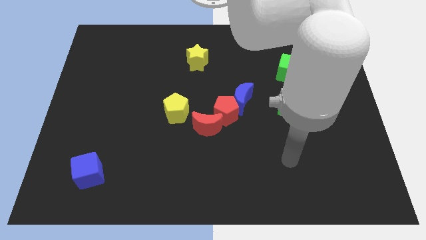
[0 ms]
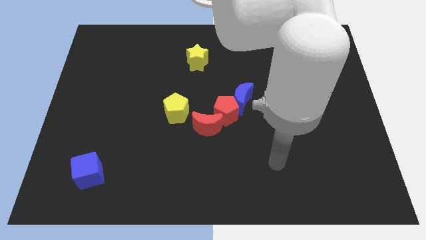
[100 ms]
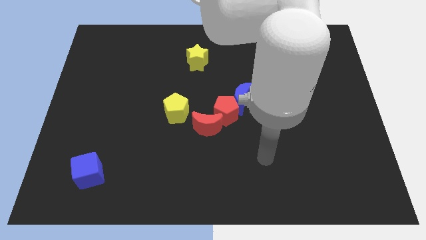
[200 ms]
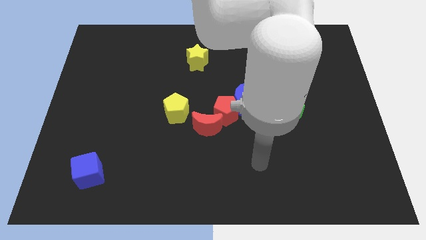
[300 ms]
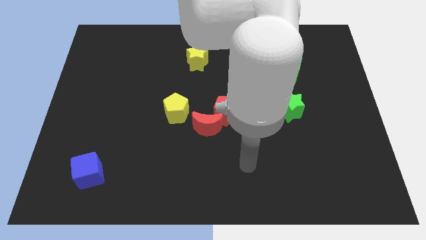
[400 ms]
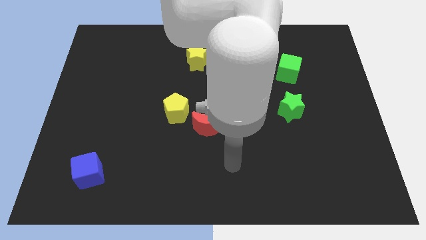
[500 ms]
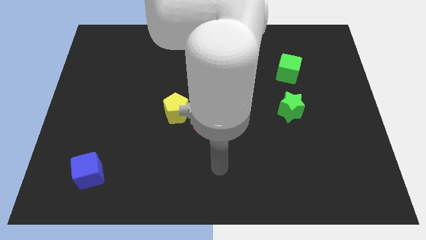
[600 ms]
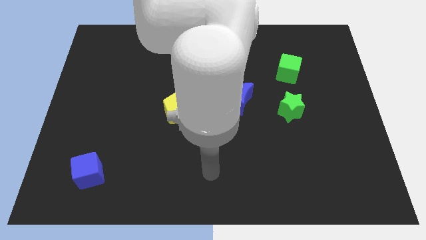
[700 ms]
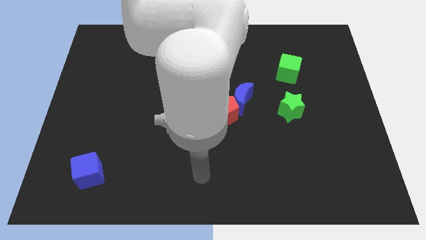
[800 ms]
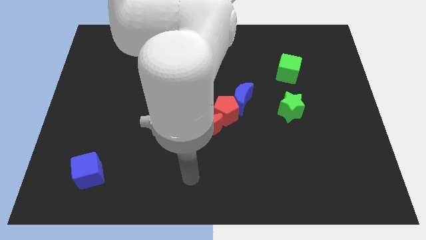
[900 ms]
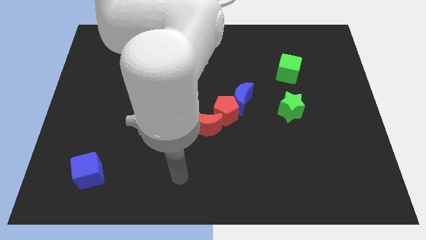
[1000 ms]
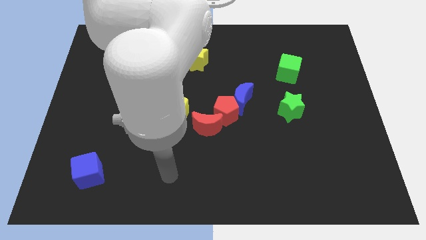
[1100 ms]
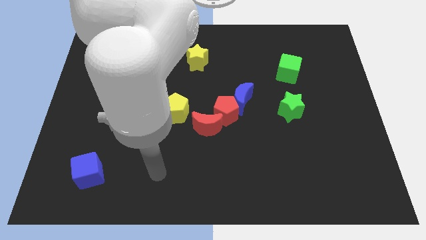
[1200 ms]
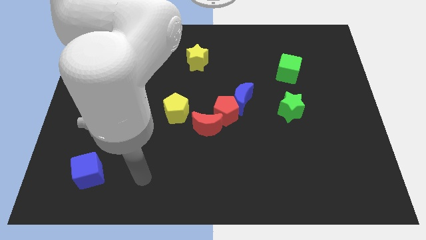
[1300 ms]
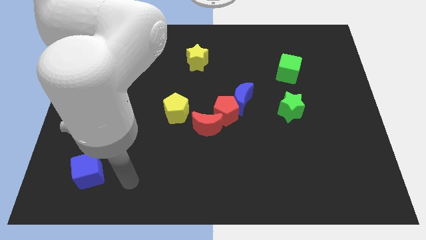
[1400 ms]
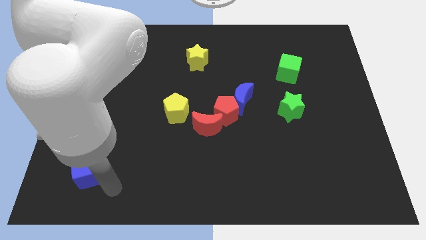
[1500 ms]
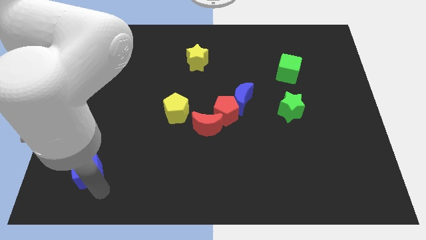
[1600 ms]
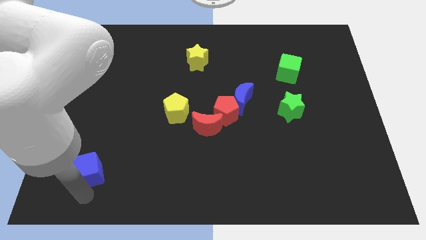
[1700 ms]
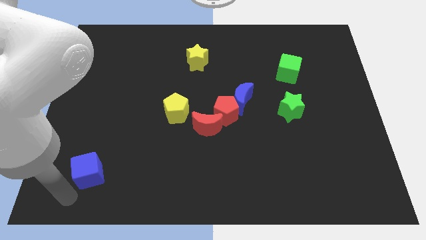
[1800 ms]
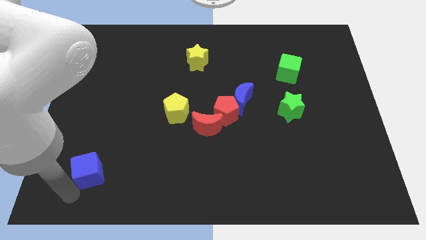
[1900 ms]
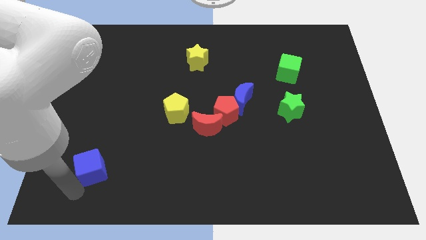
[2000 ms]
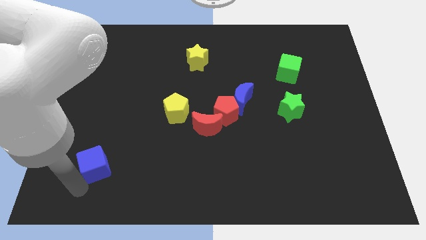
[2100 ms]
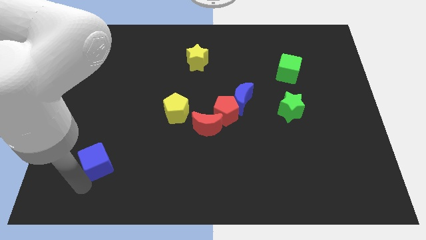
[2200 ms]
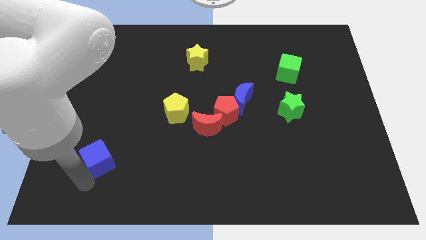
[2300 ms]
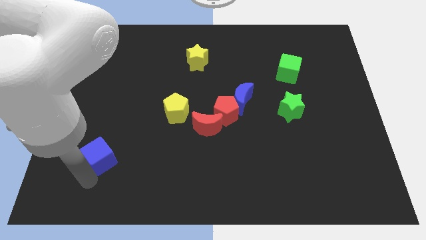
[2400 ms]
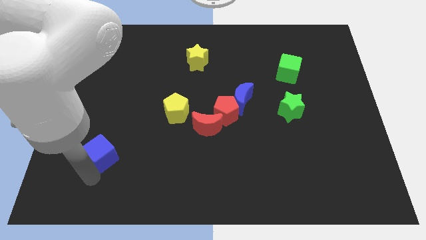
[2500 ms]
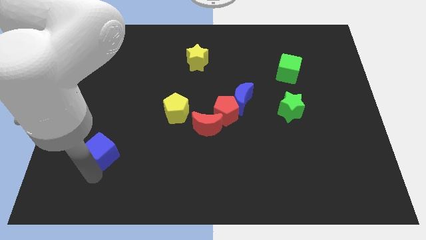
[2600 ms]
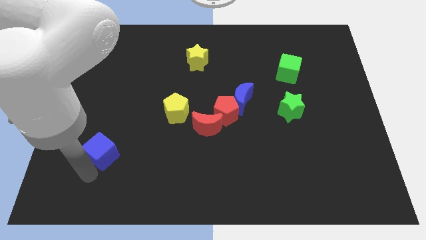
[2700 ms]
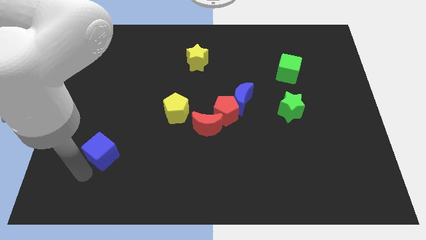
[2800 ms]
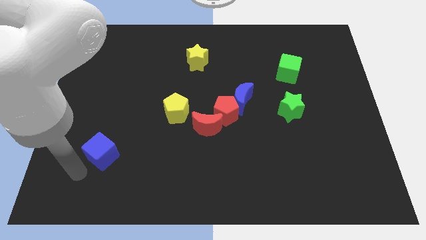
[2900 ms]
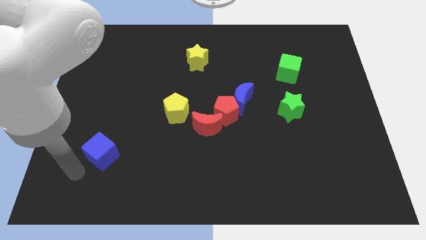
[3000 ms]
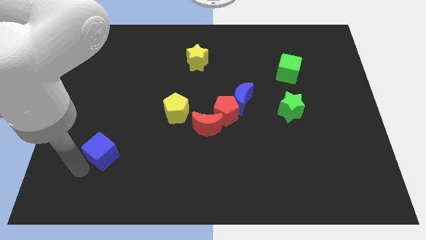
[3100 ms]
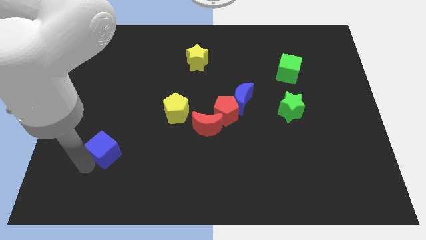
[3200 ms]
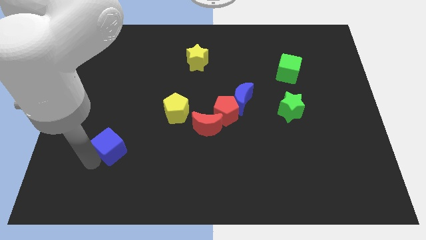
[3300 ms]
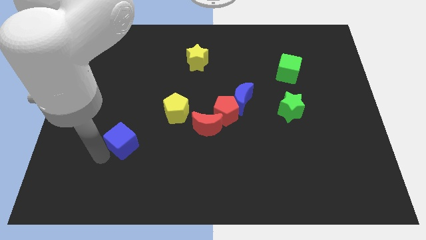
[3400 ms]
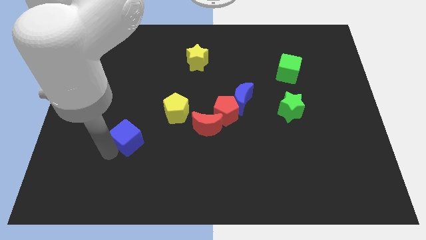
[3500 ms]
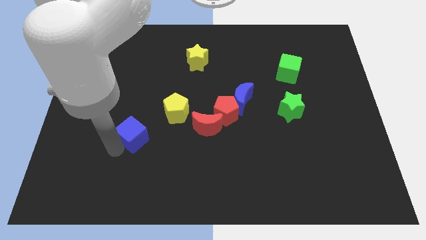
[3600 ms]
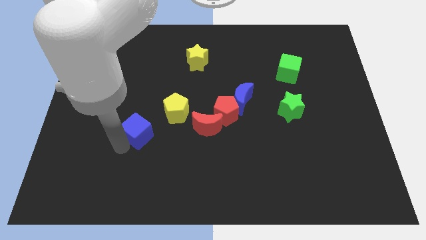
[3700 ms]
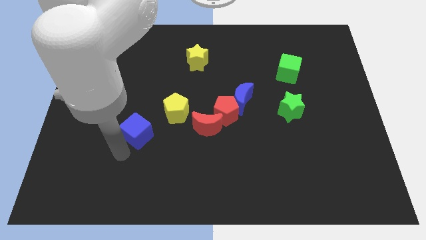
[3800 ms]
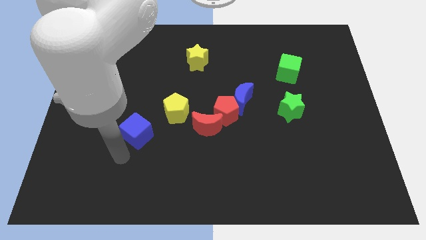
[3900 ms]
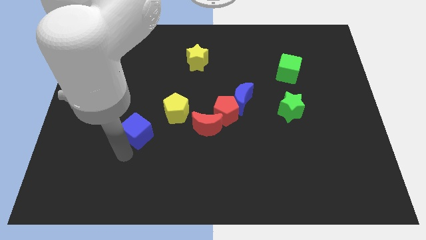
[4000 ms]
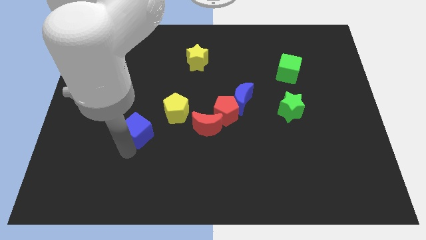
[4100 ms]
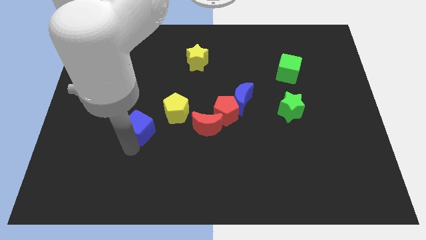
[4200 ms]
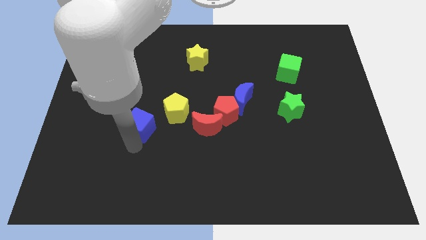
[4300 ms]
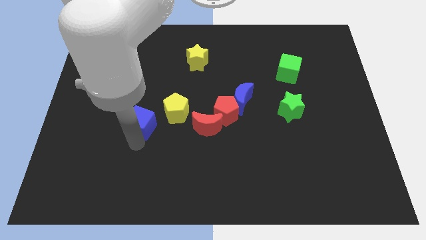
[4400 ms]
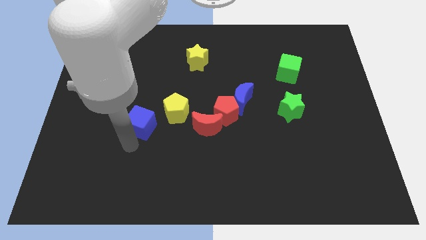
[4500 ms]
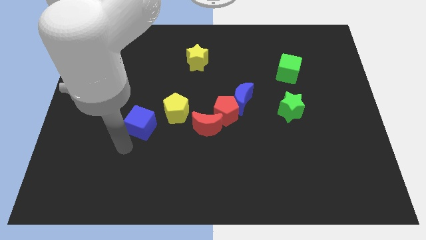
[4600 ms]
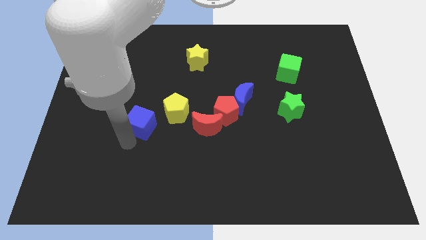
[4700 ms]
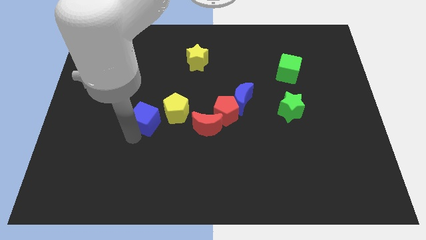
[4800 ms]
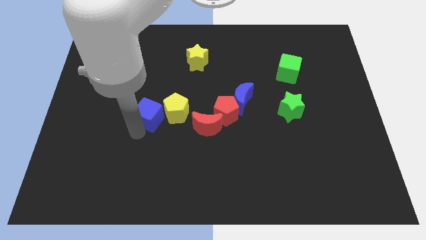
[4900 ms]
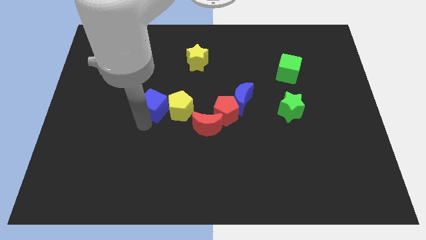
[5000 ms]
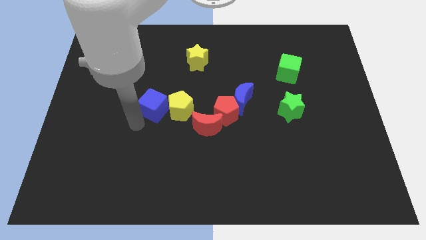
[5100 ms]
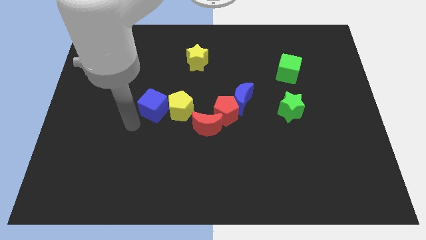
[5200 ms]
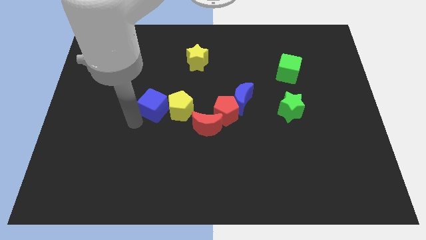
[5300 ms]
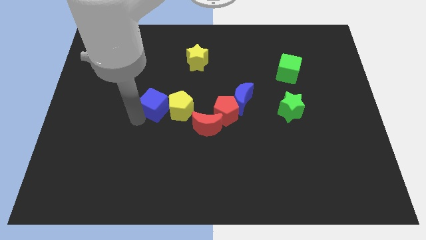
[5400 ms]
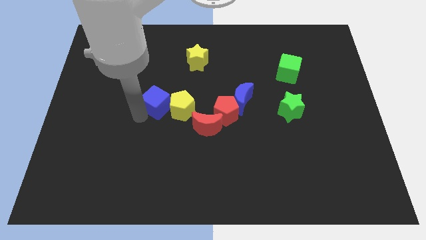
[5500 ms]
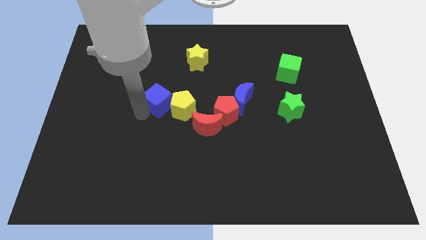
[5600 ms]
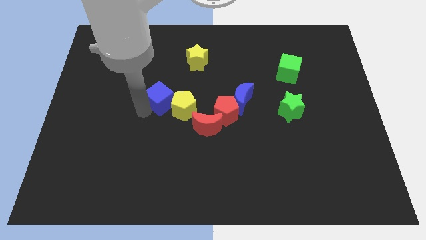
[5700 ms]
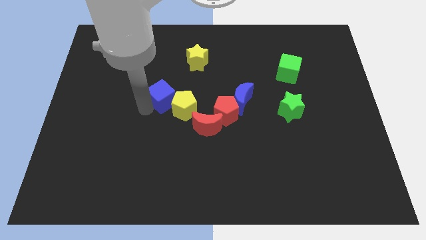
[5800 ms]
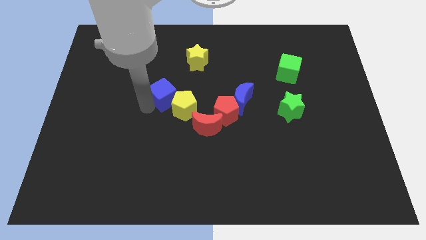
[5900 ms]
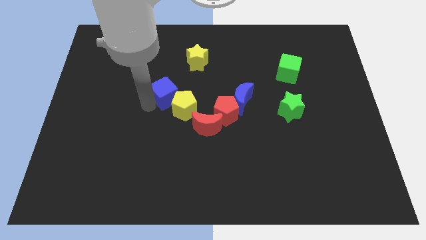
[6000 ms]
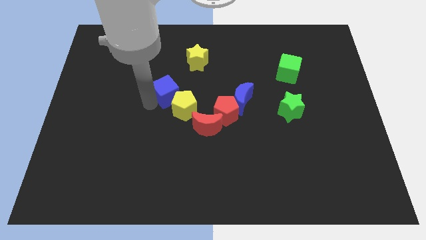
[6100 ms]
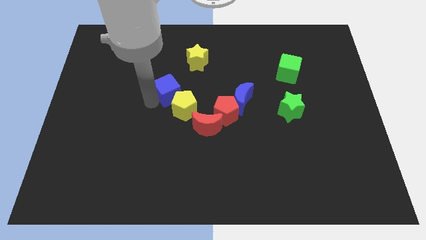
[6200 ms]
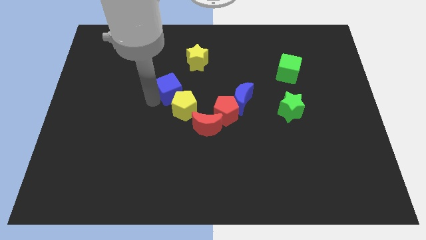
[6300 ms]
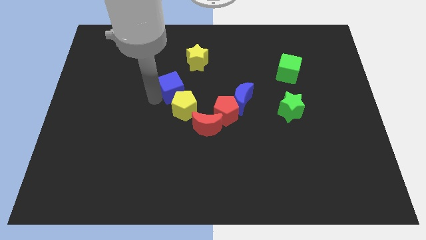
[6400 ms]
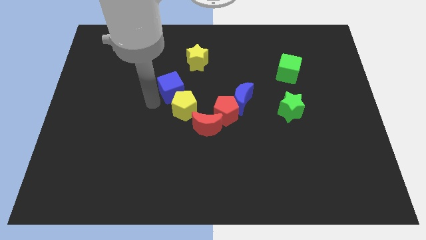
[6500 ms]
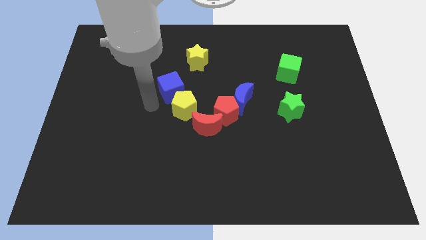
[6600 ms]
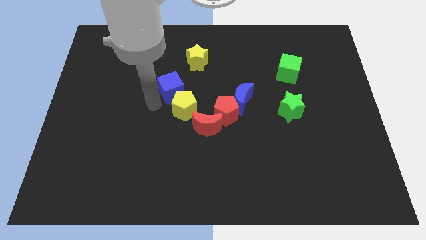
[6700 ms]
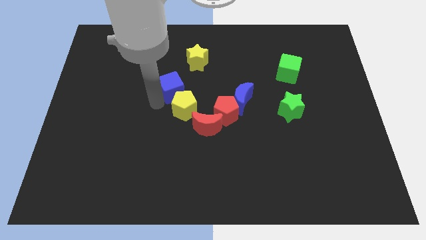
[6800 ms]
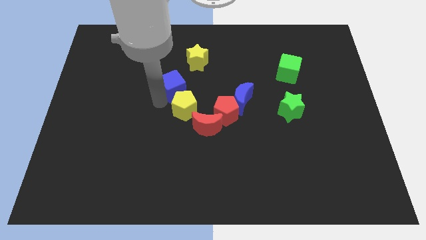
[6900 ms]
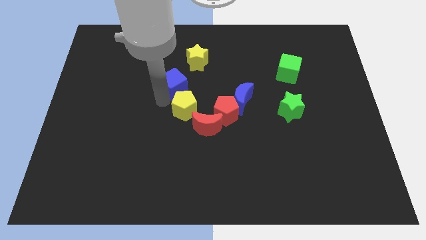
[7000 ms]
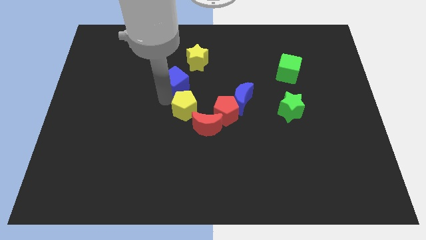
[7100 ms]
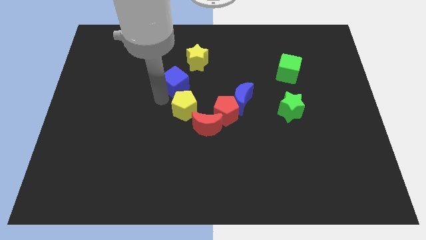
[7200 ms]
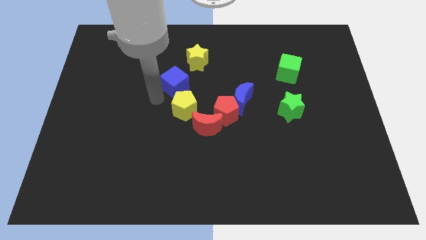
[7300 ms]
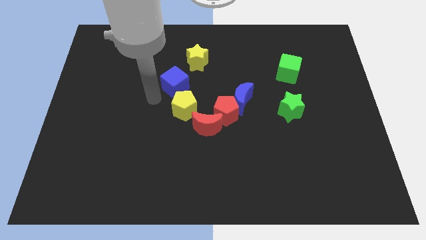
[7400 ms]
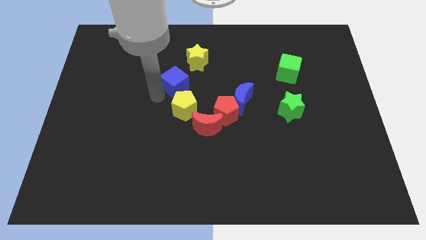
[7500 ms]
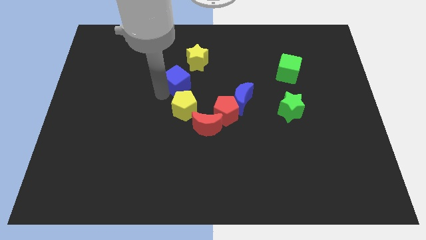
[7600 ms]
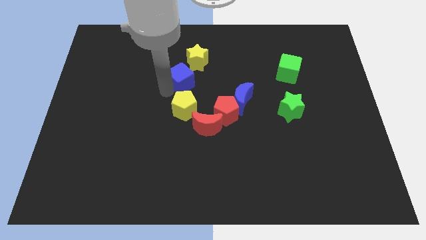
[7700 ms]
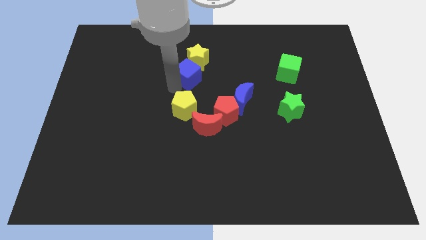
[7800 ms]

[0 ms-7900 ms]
move the blue cube towards the yellow star
